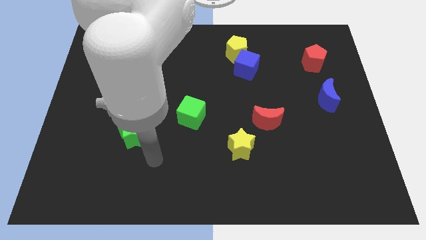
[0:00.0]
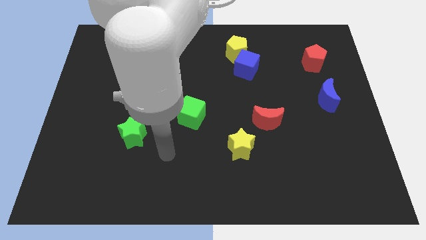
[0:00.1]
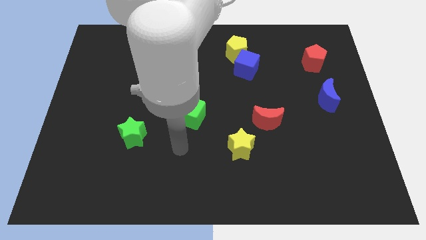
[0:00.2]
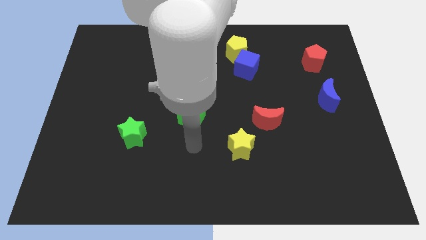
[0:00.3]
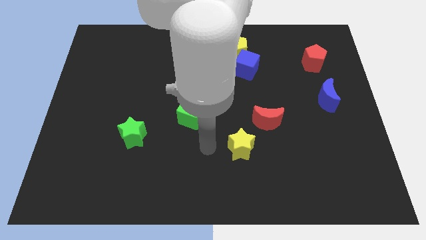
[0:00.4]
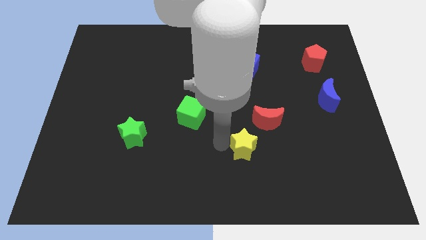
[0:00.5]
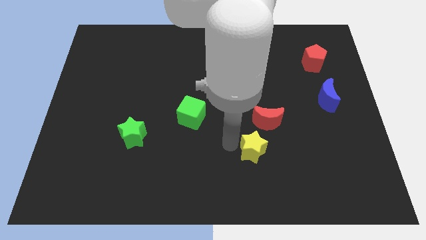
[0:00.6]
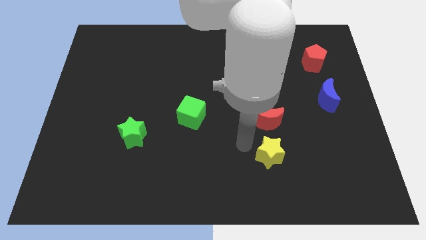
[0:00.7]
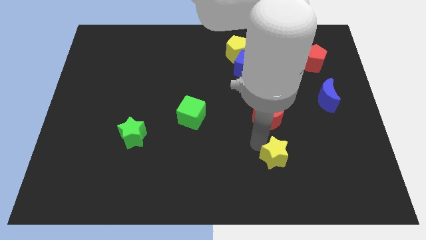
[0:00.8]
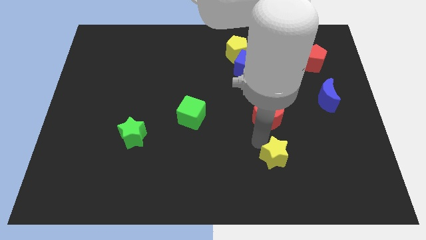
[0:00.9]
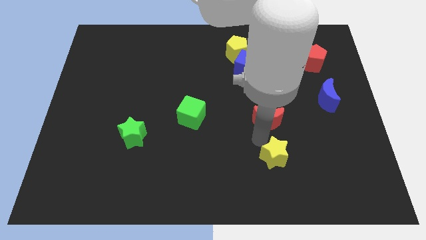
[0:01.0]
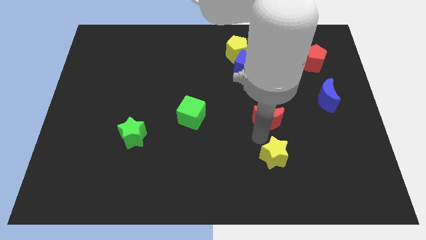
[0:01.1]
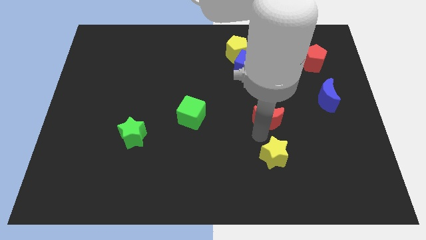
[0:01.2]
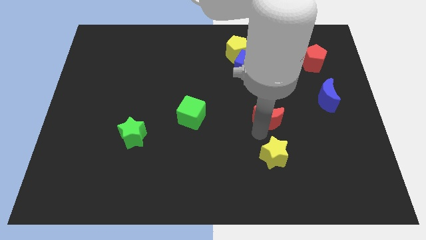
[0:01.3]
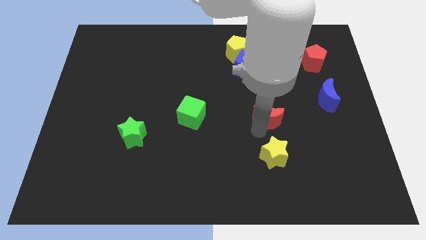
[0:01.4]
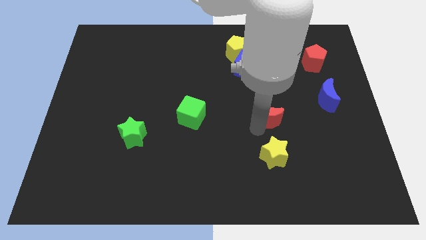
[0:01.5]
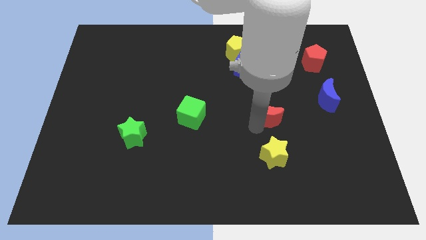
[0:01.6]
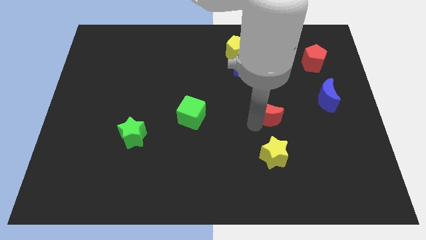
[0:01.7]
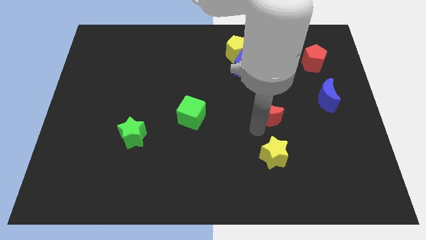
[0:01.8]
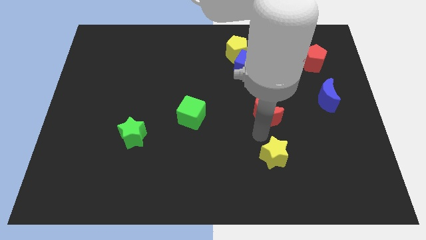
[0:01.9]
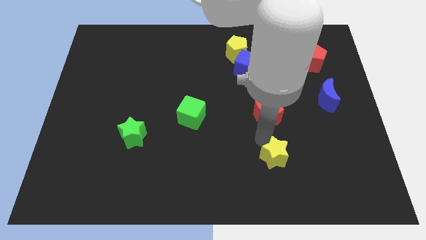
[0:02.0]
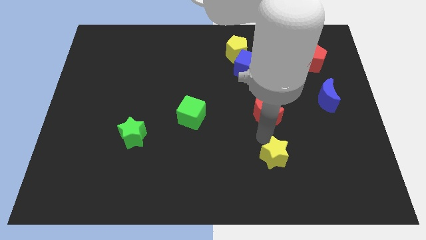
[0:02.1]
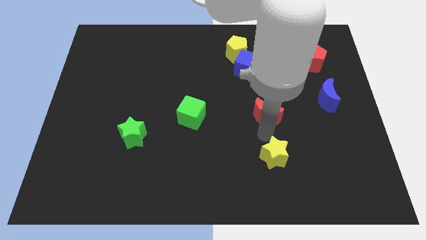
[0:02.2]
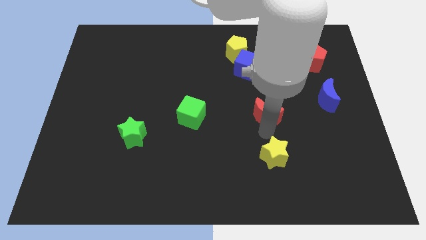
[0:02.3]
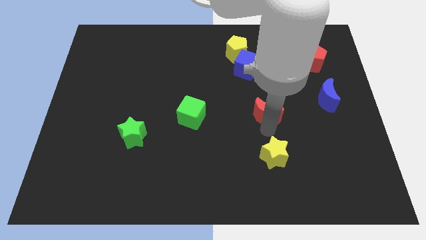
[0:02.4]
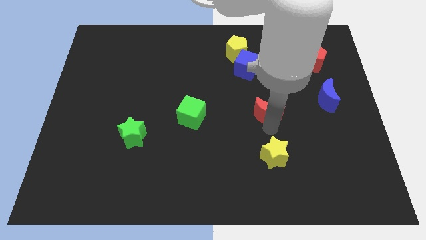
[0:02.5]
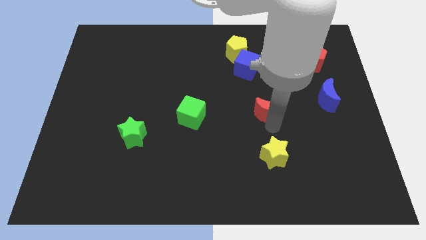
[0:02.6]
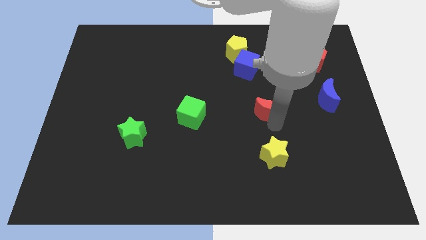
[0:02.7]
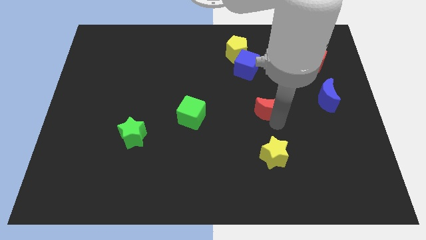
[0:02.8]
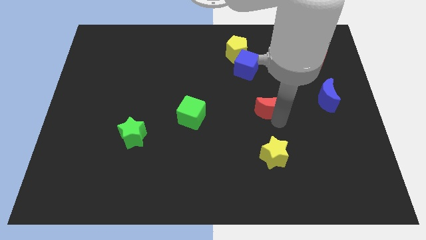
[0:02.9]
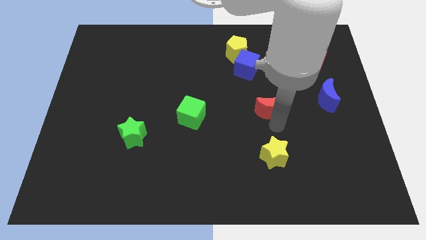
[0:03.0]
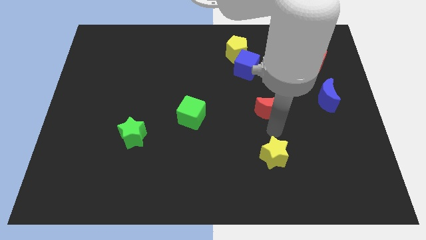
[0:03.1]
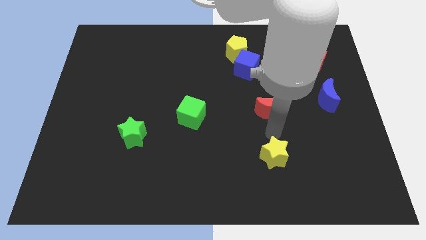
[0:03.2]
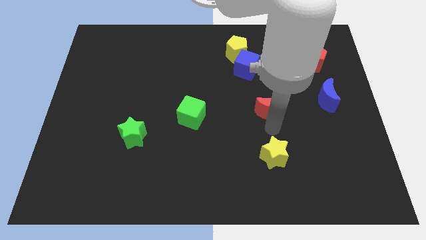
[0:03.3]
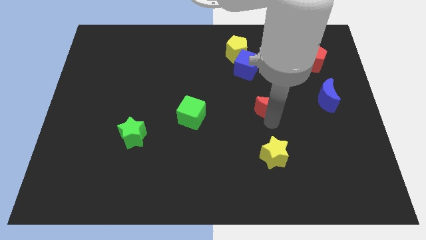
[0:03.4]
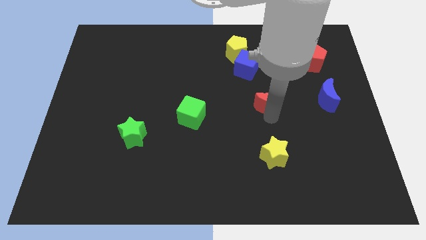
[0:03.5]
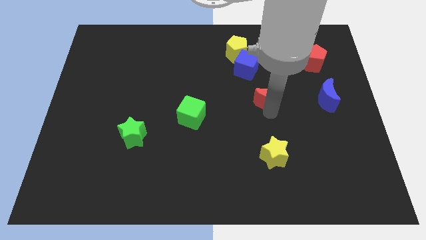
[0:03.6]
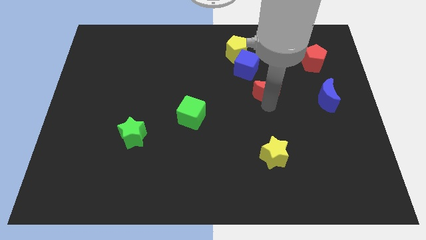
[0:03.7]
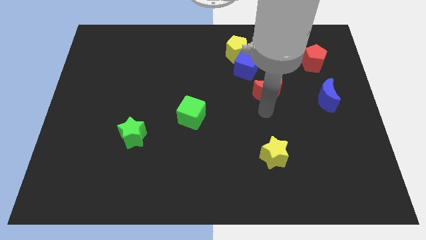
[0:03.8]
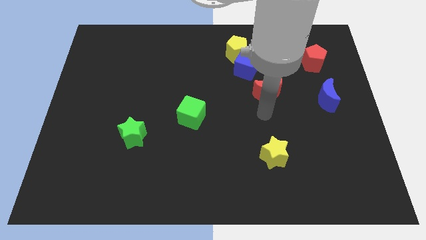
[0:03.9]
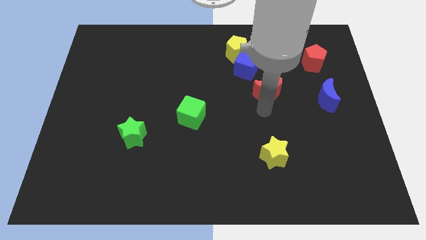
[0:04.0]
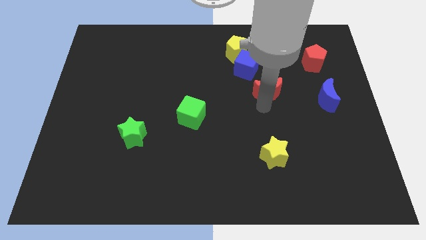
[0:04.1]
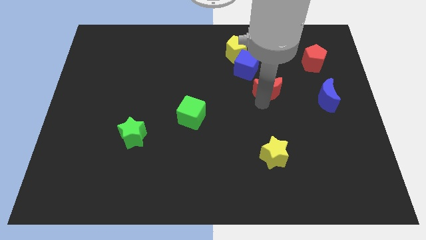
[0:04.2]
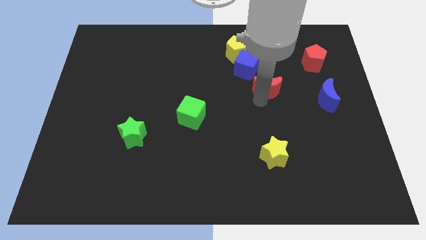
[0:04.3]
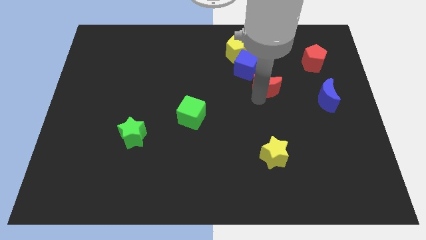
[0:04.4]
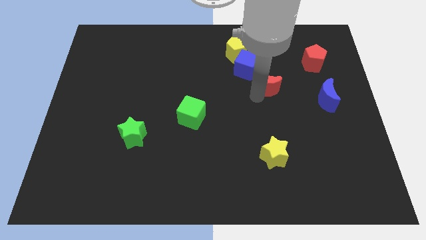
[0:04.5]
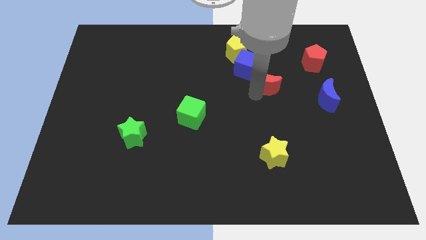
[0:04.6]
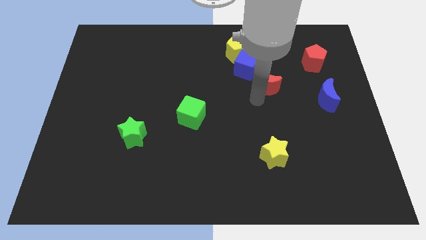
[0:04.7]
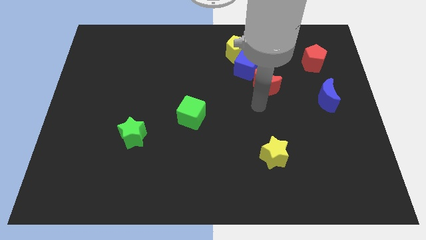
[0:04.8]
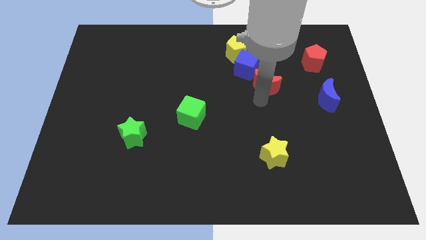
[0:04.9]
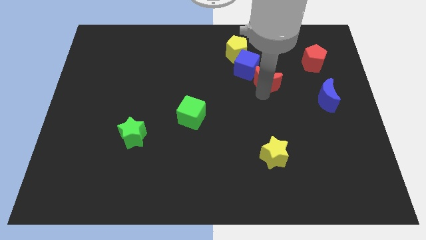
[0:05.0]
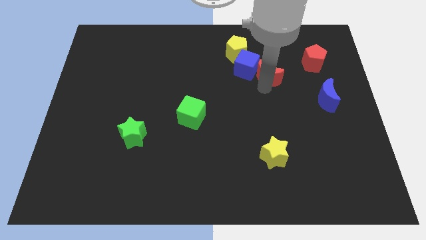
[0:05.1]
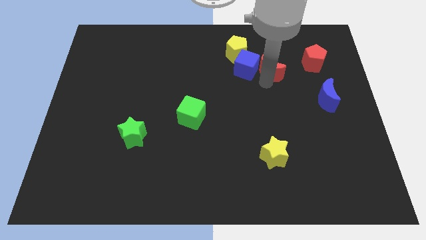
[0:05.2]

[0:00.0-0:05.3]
slide the red moon to the left of the red pentagon

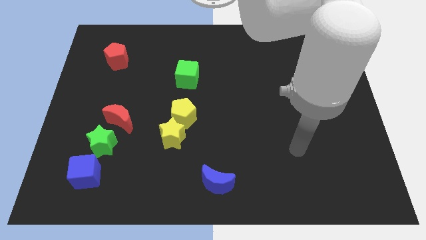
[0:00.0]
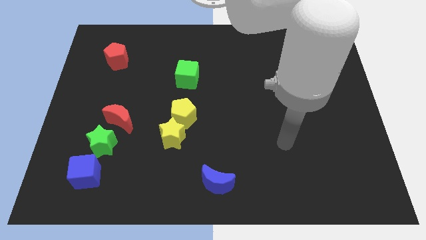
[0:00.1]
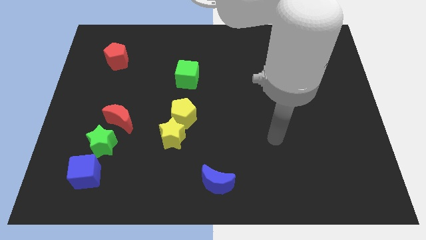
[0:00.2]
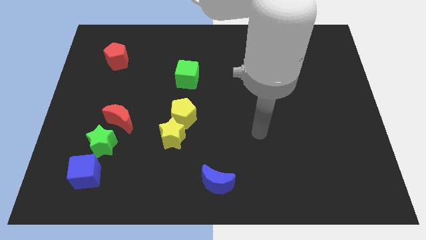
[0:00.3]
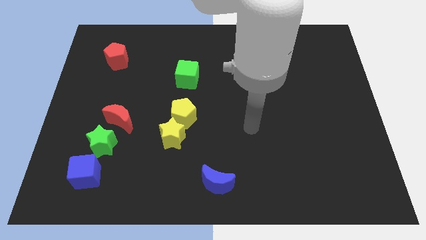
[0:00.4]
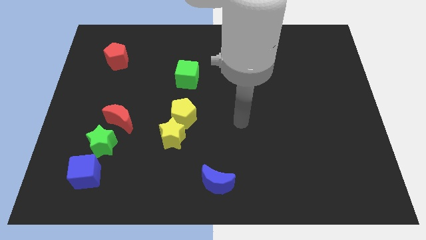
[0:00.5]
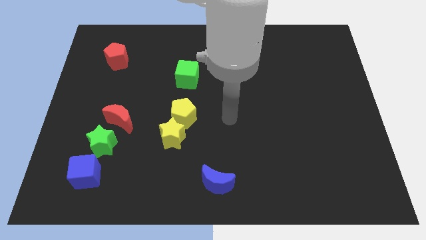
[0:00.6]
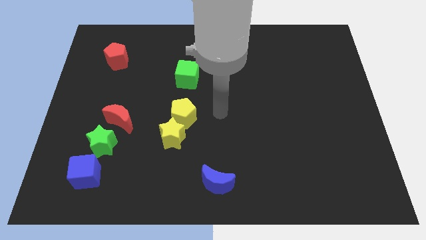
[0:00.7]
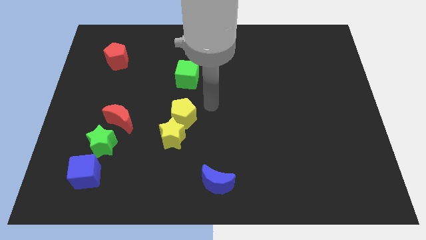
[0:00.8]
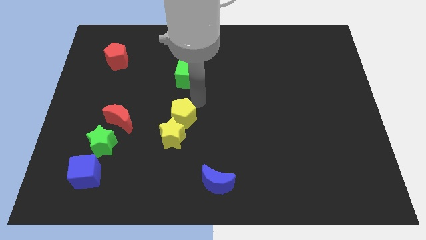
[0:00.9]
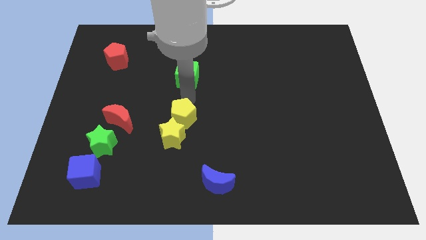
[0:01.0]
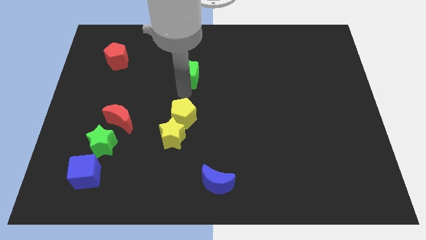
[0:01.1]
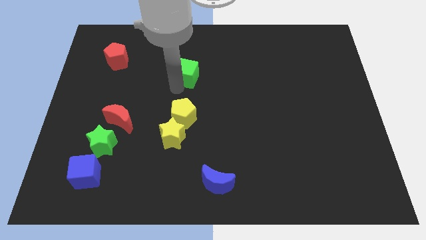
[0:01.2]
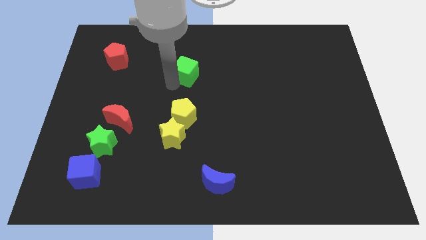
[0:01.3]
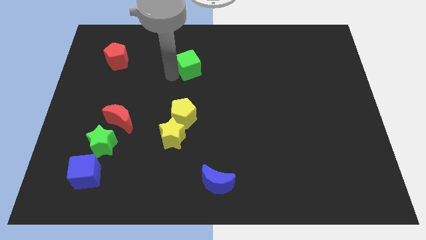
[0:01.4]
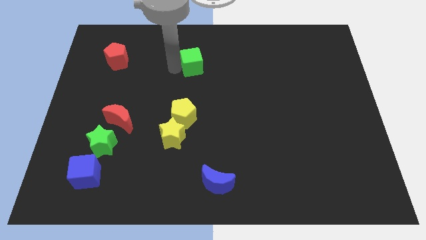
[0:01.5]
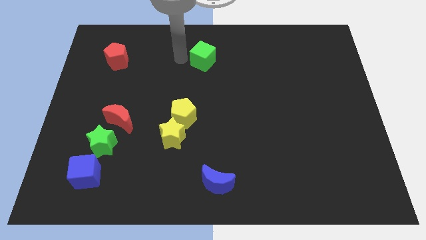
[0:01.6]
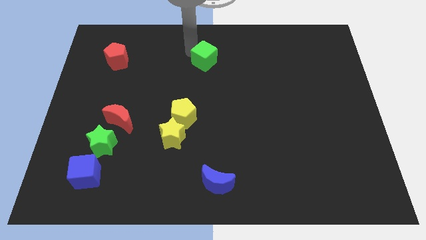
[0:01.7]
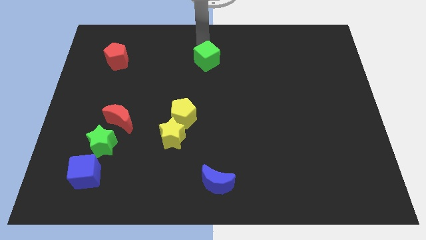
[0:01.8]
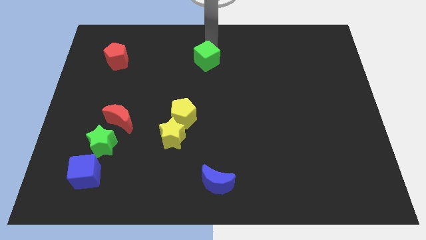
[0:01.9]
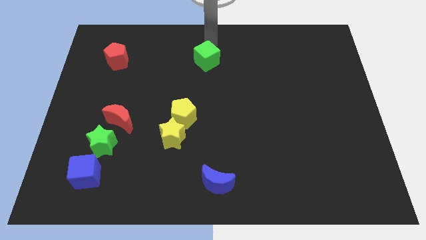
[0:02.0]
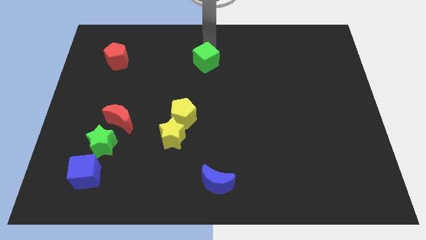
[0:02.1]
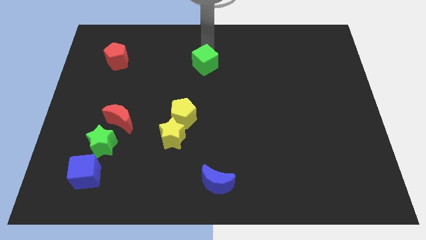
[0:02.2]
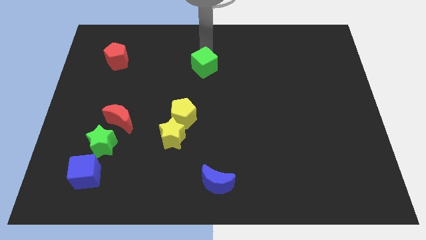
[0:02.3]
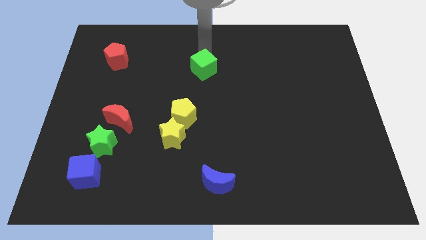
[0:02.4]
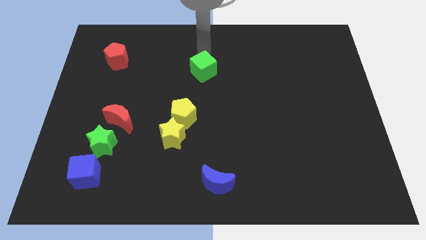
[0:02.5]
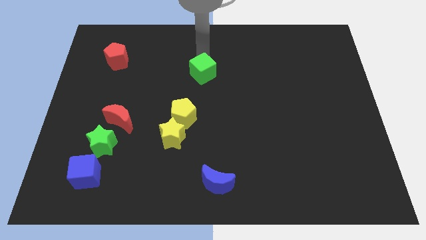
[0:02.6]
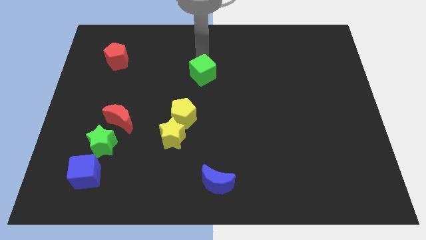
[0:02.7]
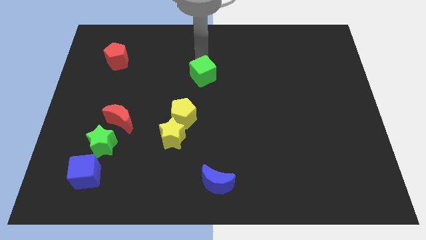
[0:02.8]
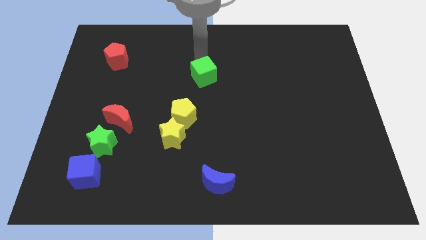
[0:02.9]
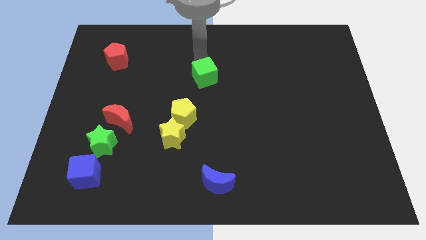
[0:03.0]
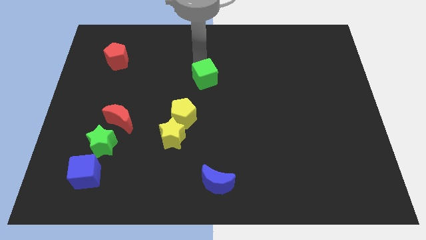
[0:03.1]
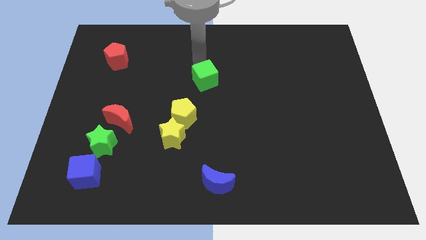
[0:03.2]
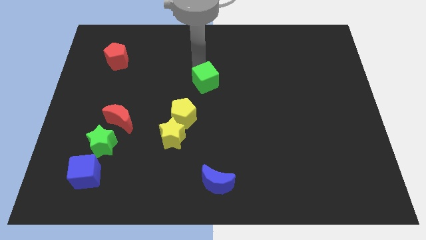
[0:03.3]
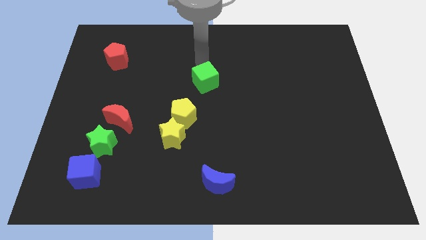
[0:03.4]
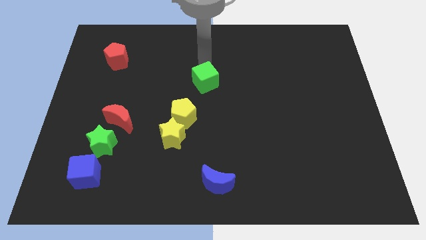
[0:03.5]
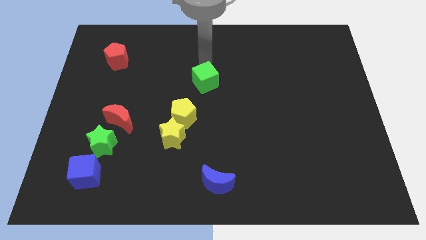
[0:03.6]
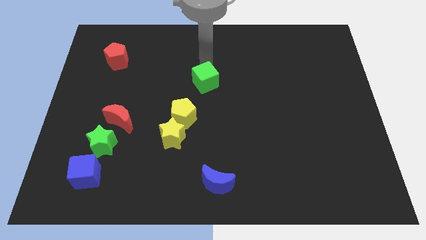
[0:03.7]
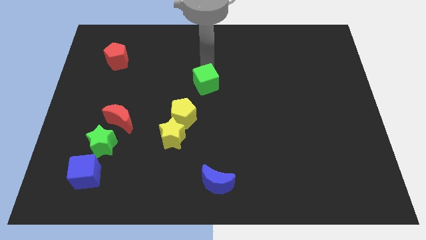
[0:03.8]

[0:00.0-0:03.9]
put the green cube diagonally up and to the right of the yellow pentagon
